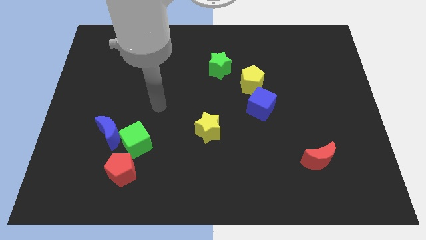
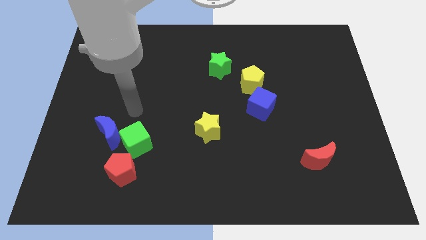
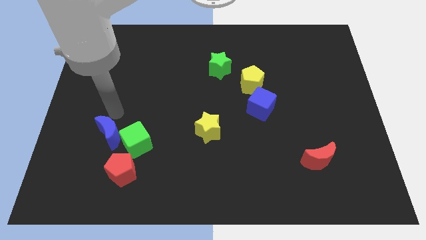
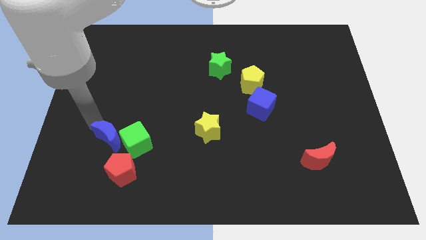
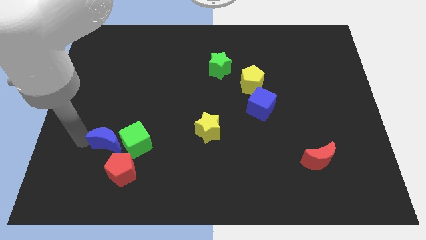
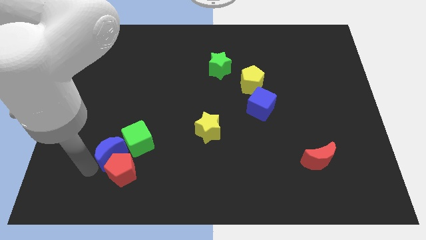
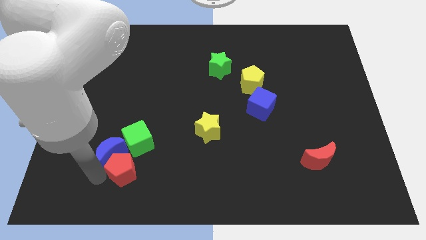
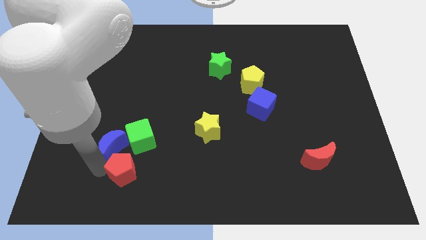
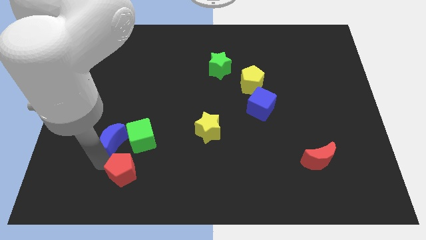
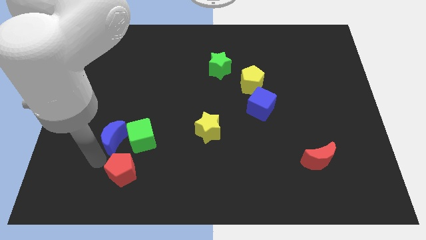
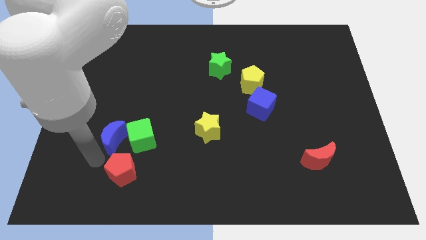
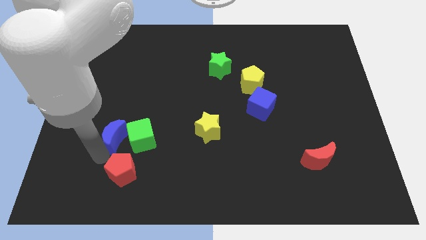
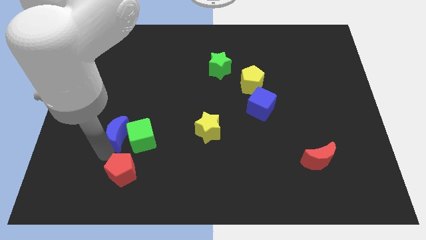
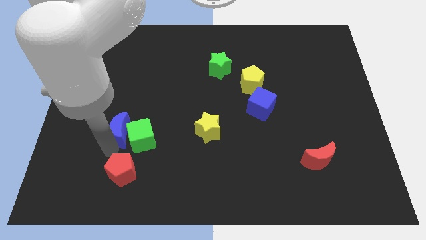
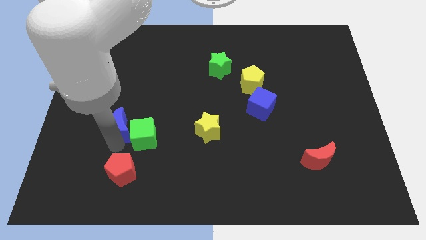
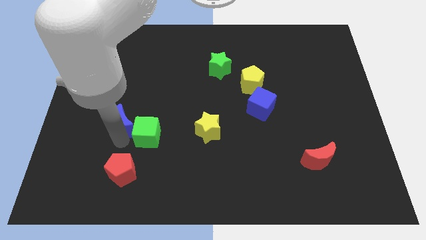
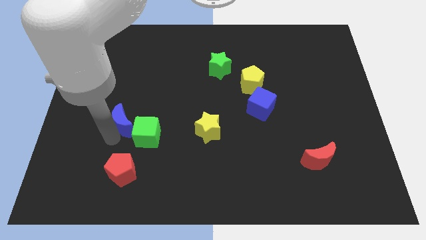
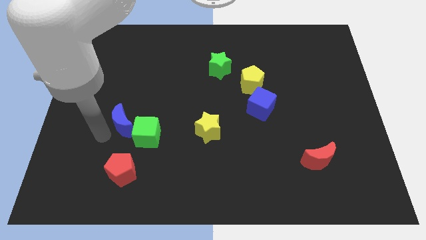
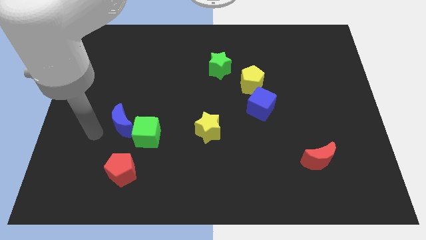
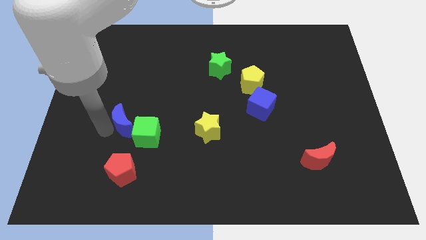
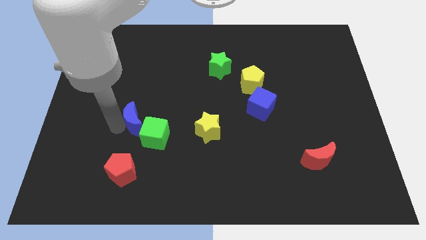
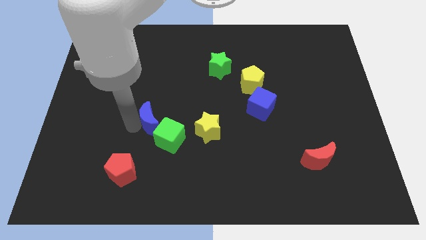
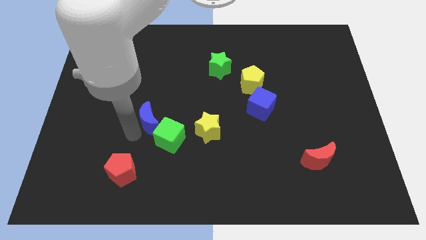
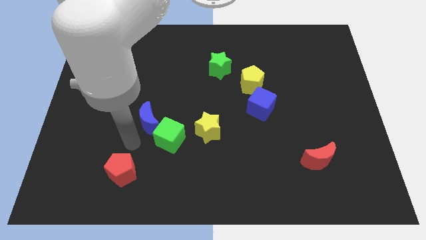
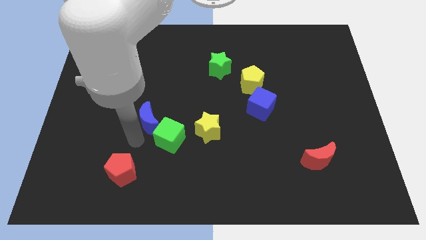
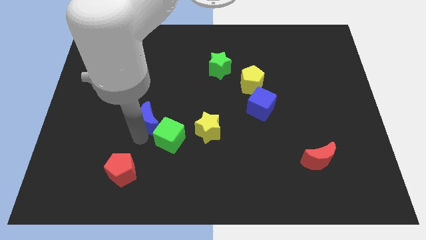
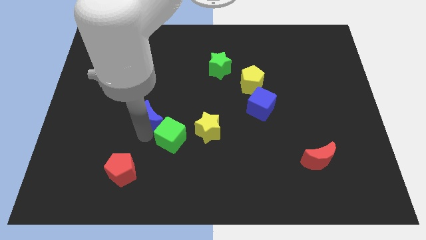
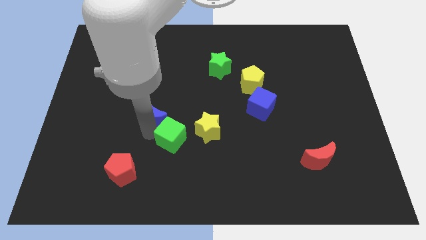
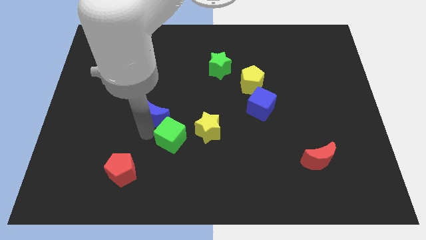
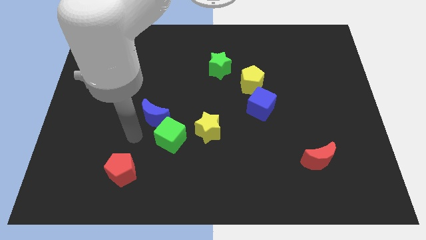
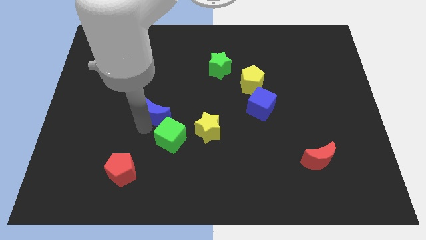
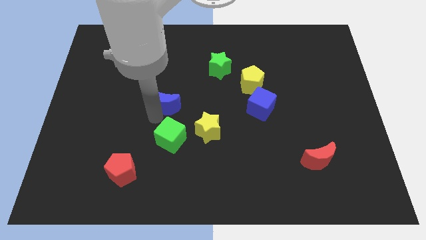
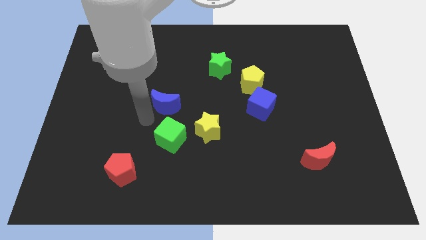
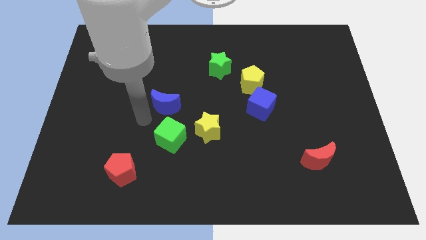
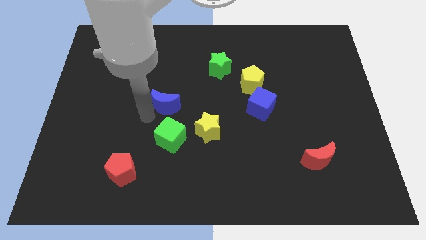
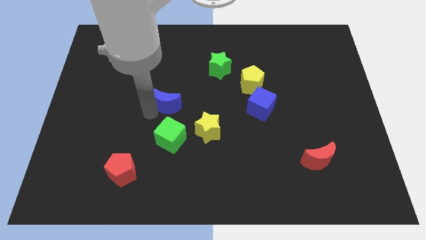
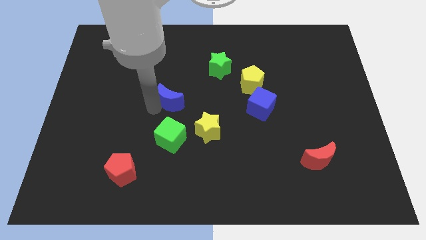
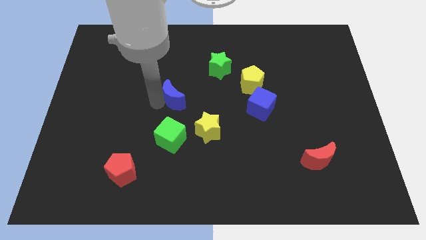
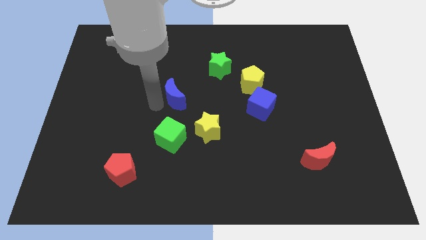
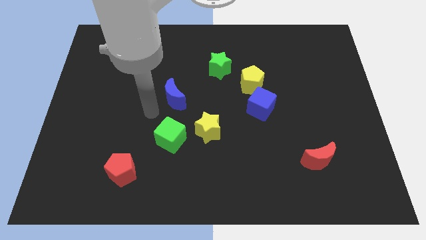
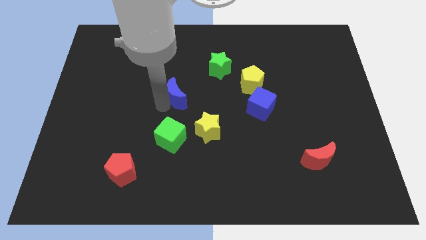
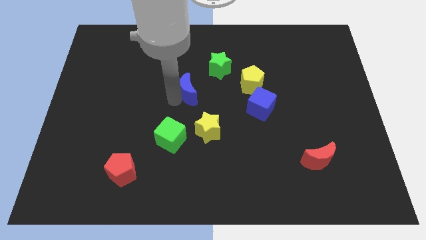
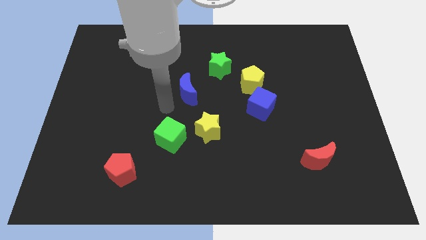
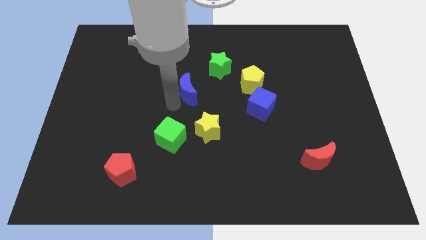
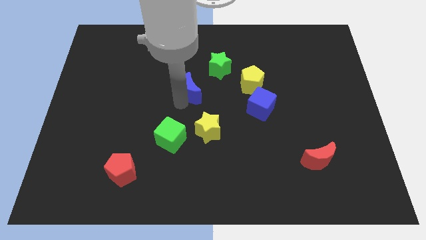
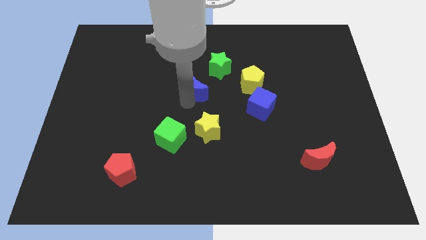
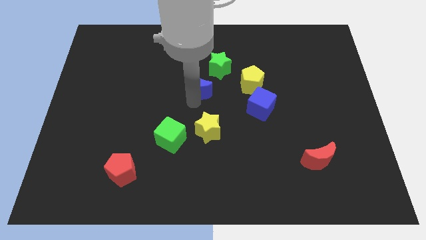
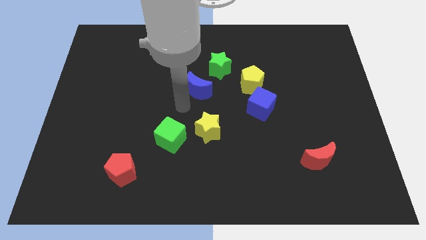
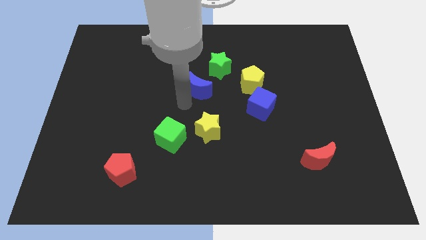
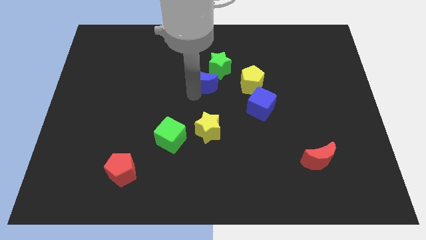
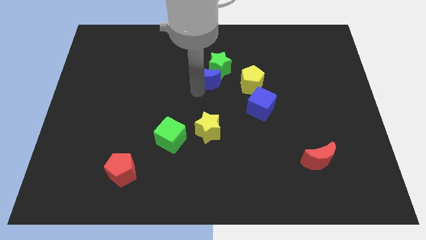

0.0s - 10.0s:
put the blue moon to the green star

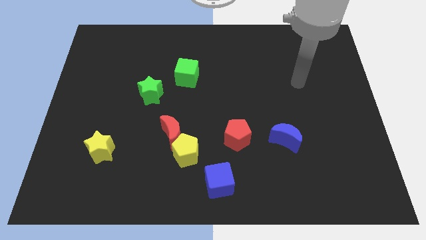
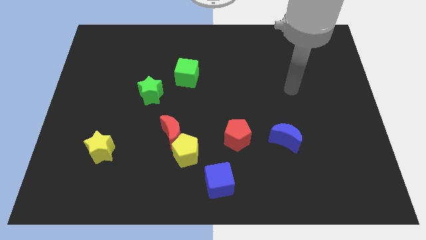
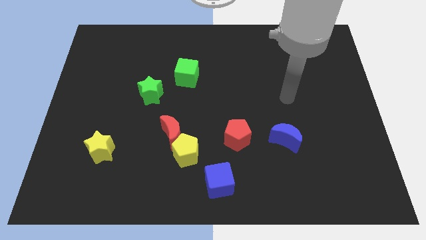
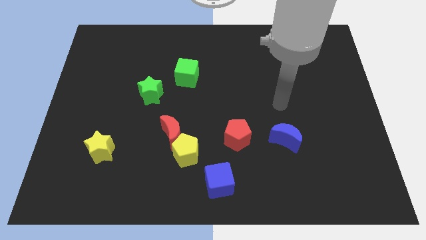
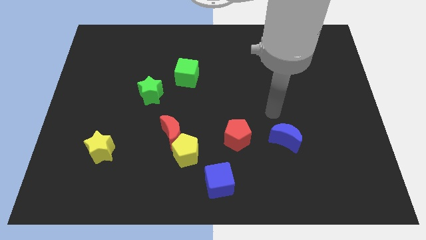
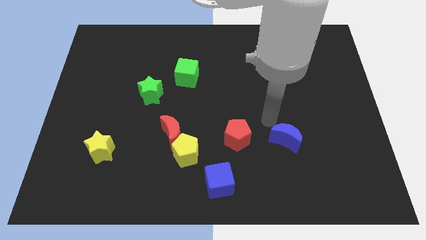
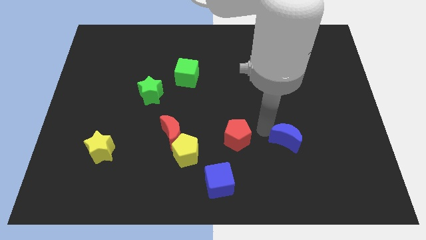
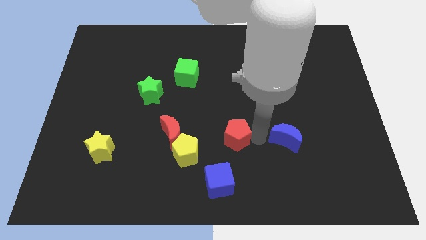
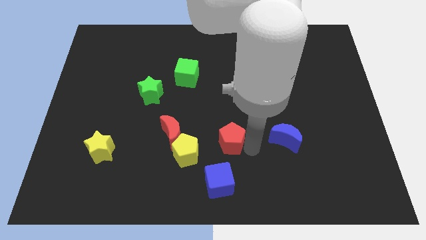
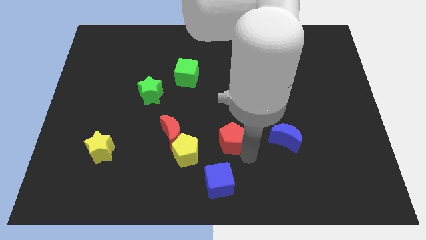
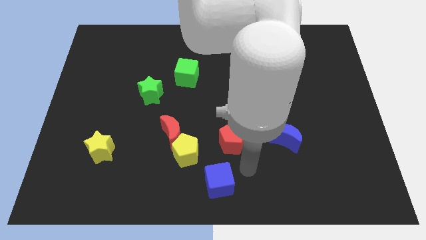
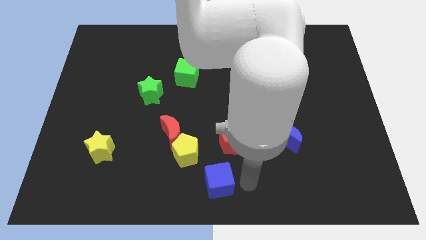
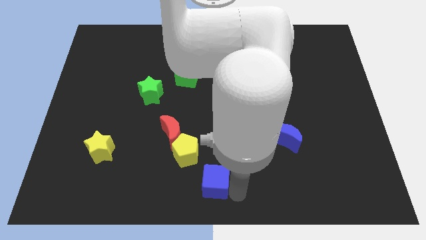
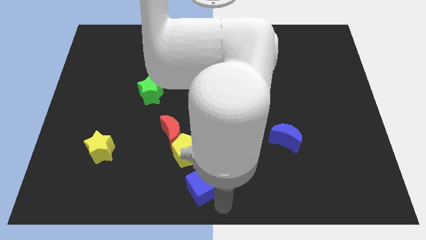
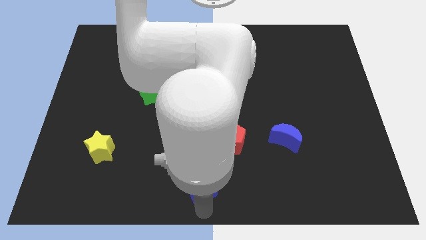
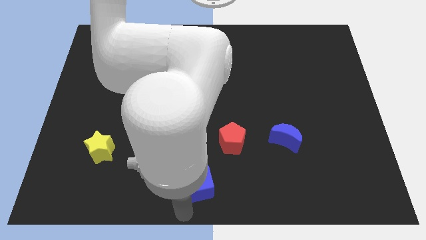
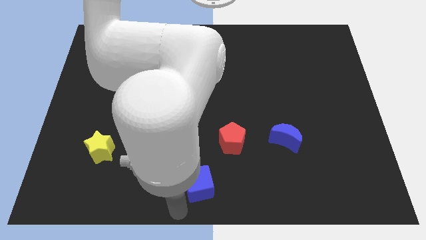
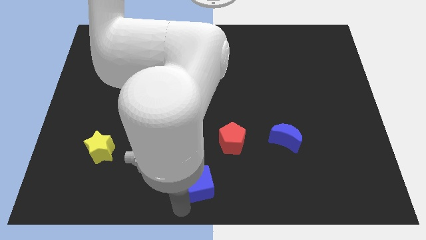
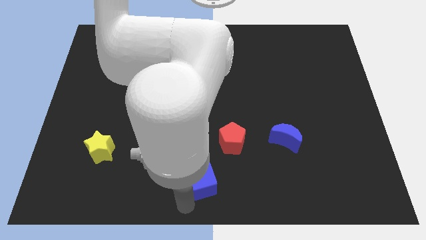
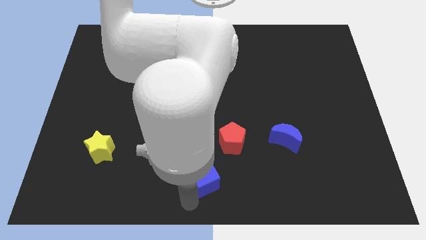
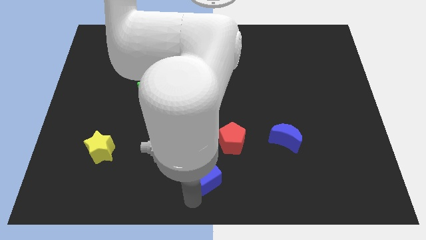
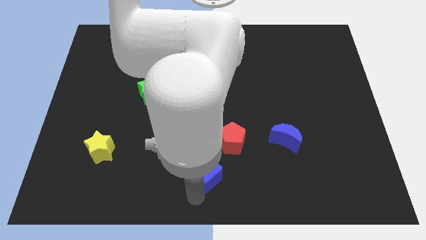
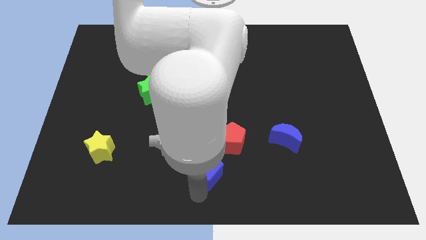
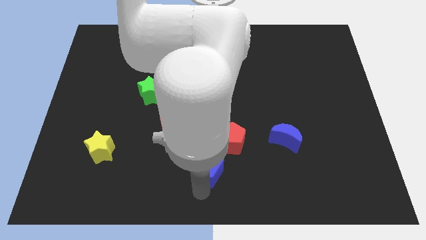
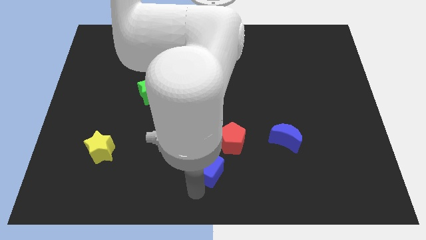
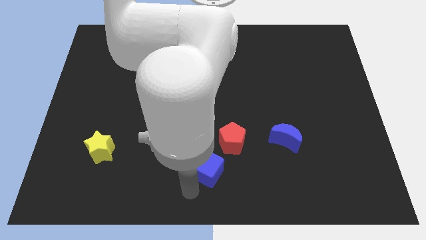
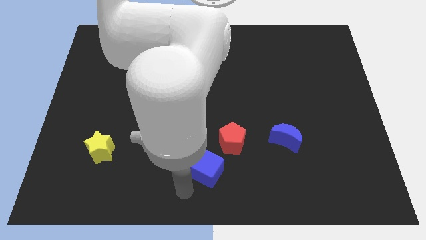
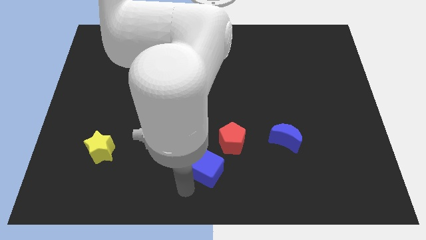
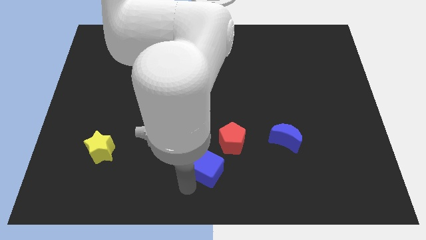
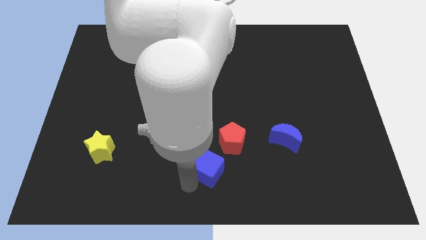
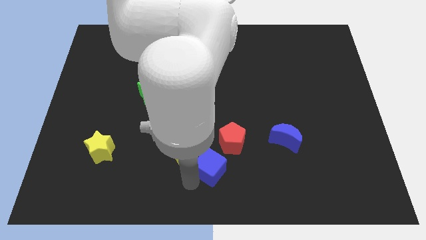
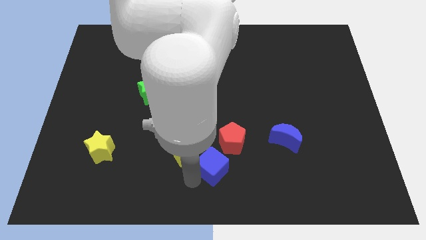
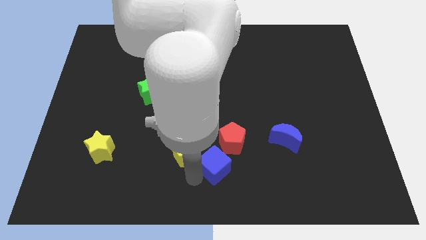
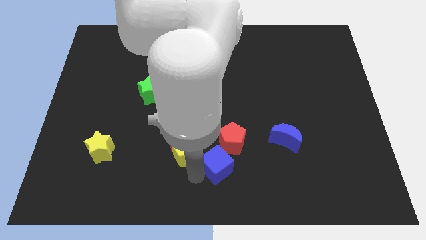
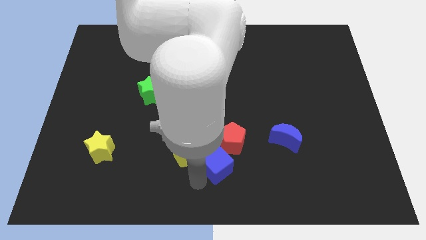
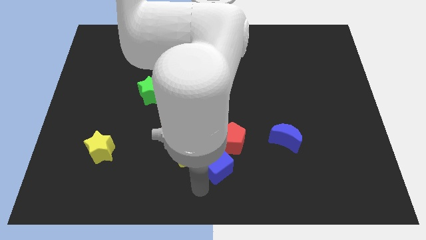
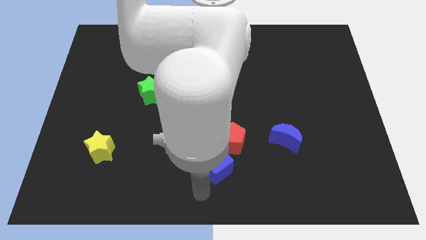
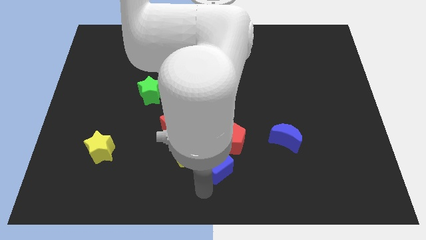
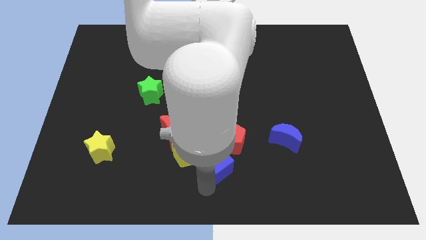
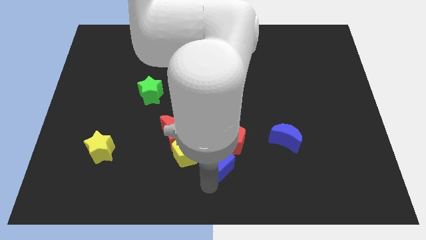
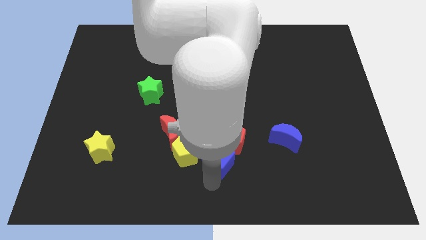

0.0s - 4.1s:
slide the blue cube close to the red pentagon
